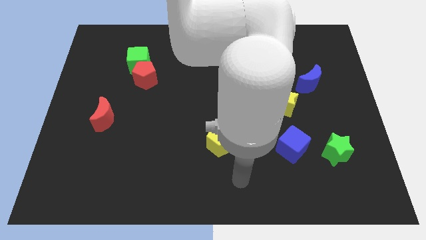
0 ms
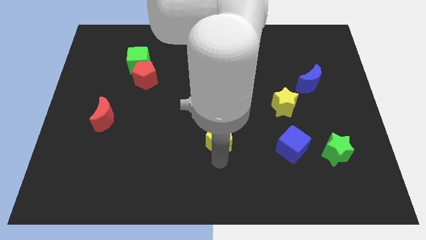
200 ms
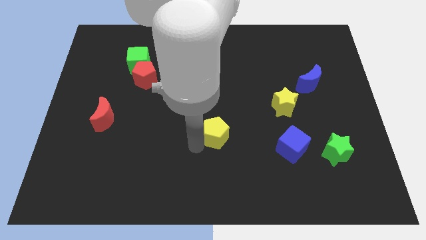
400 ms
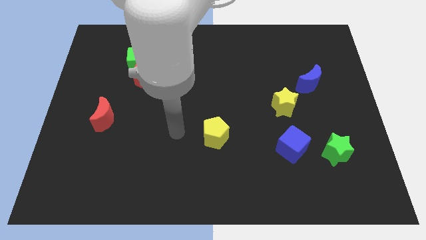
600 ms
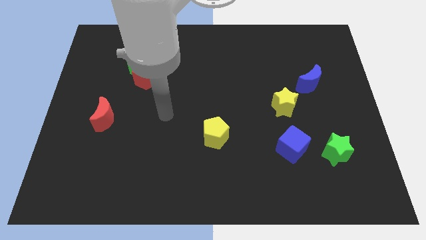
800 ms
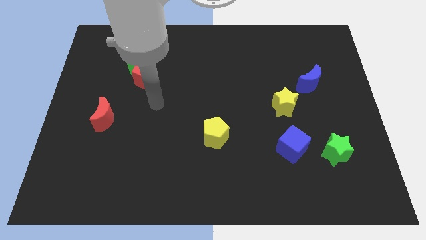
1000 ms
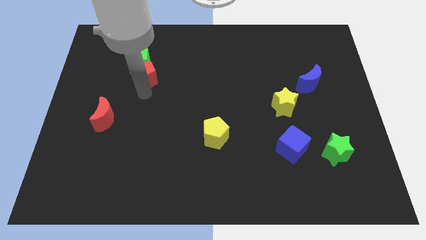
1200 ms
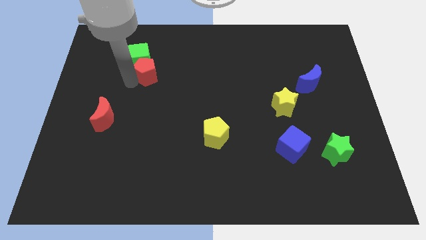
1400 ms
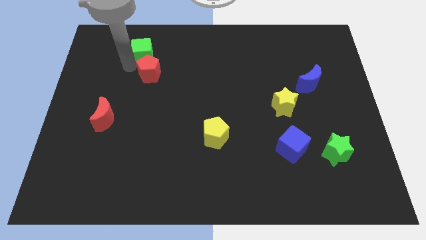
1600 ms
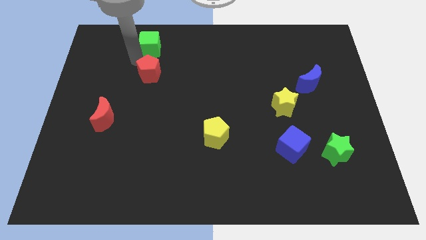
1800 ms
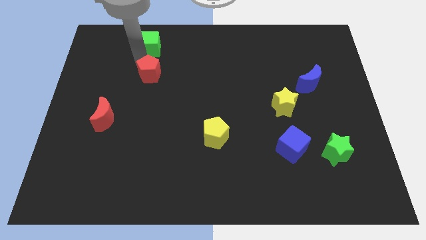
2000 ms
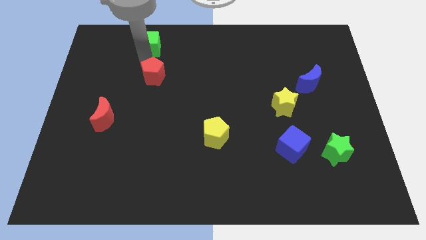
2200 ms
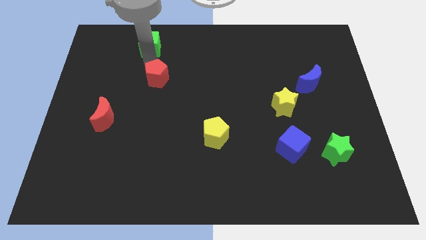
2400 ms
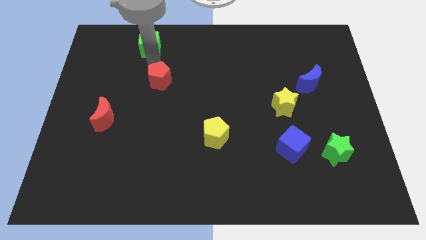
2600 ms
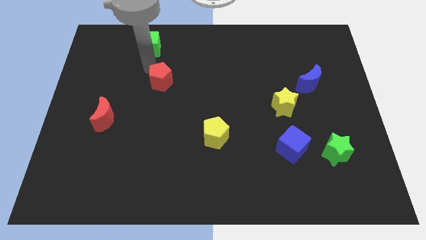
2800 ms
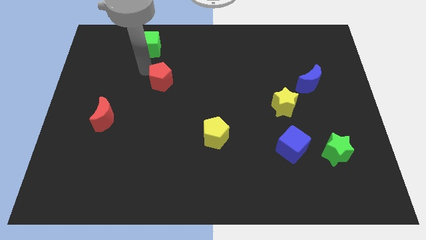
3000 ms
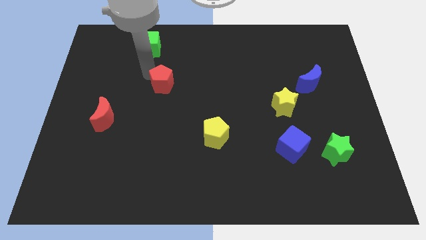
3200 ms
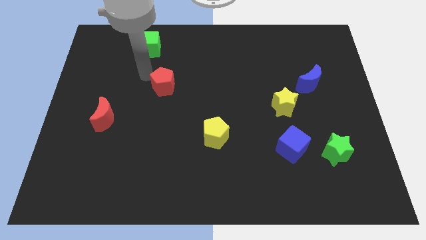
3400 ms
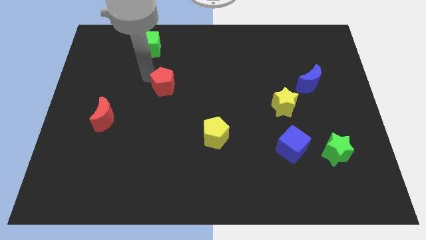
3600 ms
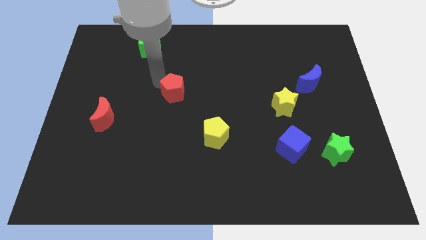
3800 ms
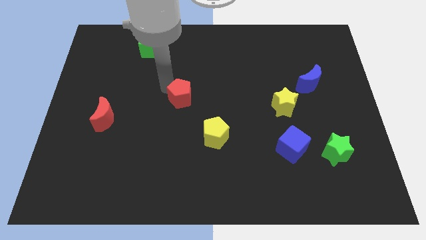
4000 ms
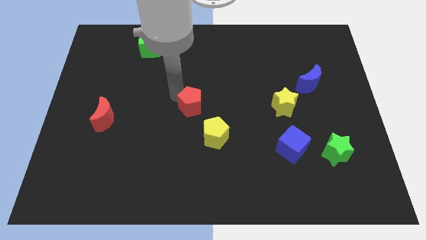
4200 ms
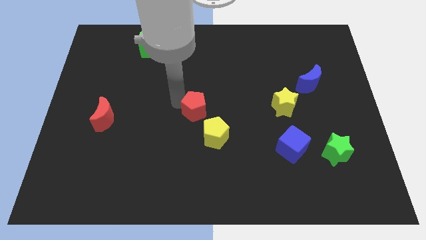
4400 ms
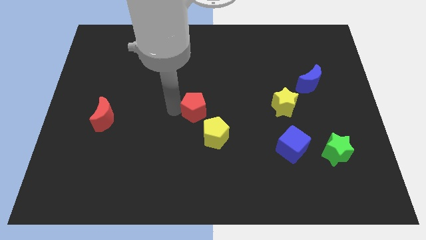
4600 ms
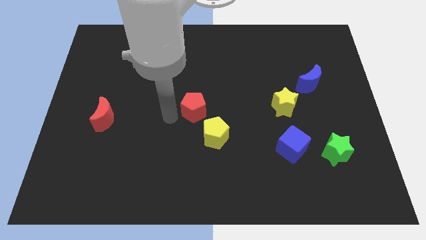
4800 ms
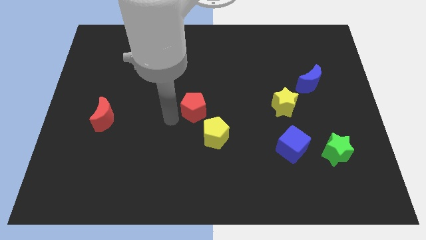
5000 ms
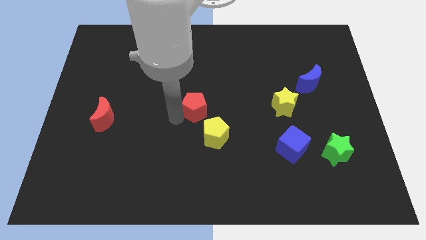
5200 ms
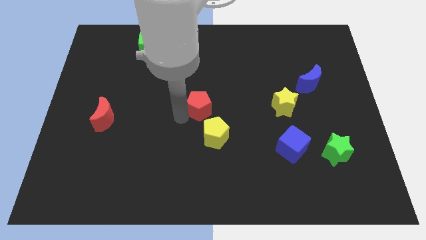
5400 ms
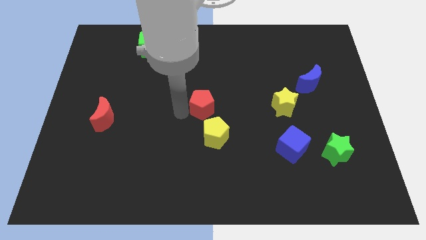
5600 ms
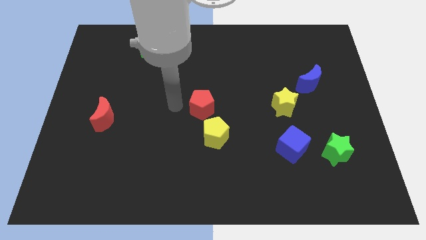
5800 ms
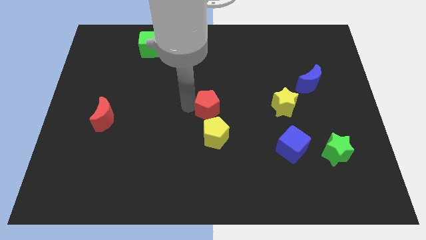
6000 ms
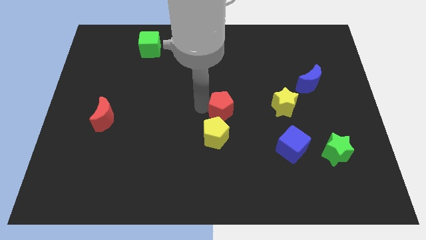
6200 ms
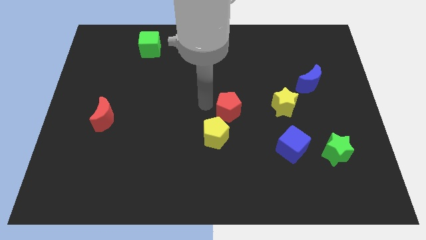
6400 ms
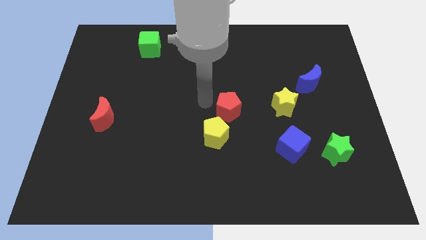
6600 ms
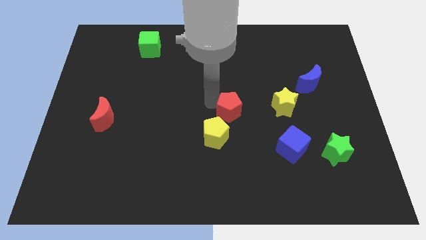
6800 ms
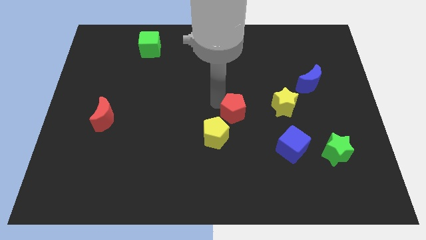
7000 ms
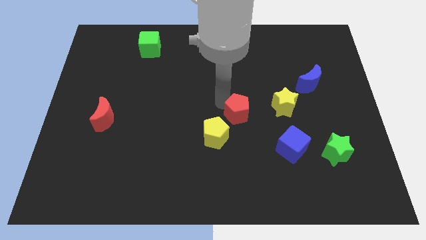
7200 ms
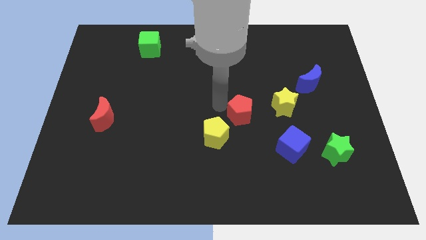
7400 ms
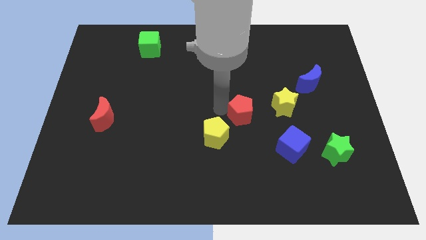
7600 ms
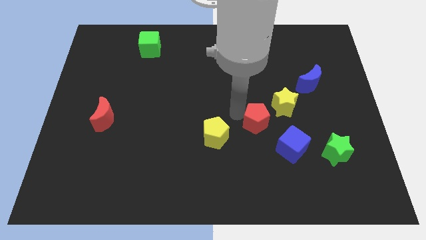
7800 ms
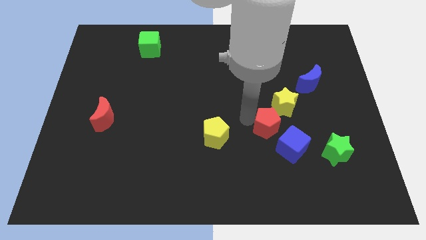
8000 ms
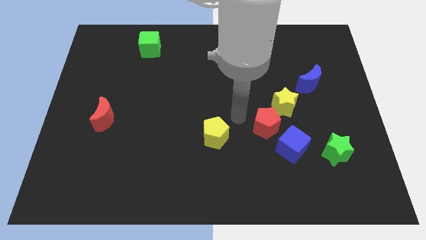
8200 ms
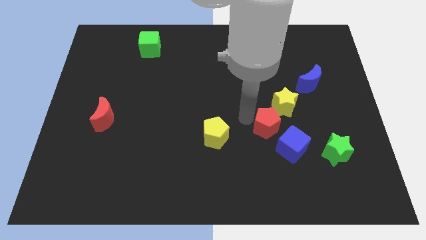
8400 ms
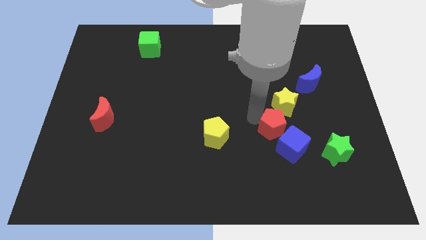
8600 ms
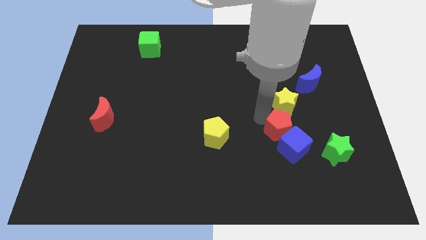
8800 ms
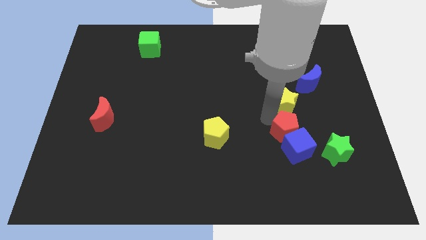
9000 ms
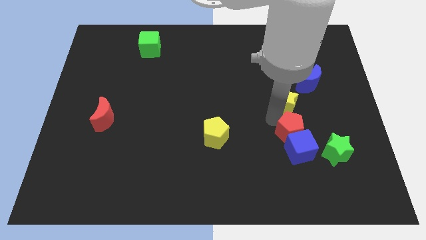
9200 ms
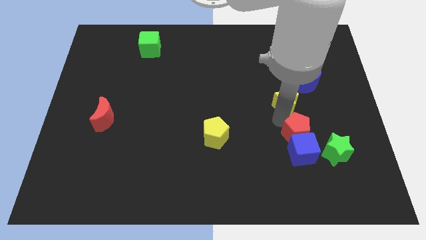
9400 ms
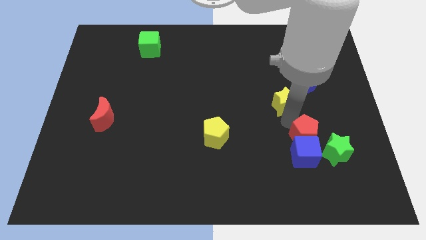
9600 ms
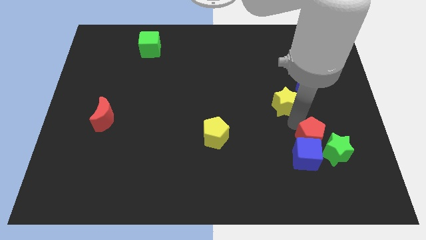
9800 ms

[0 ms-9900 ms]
move the red pentagon next to the green star

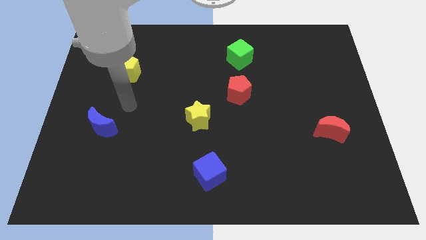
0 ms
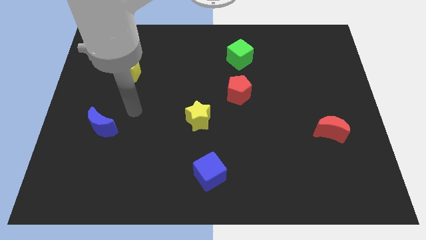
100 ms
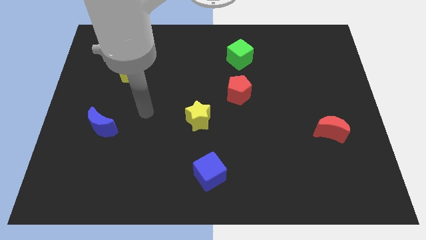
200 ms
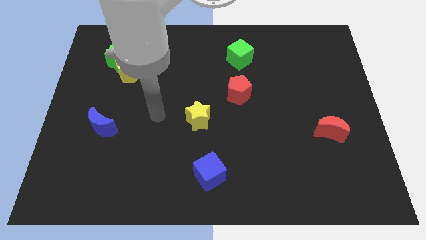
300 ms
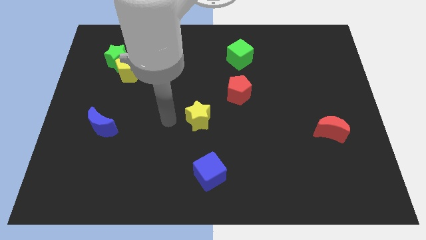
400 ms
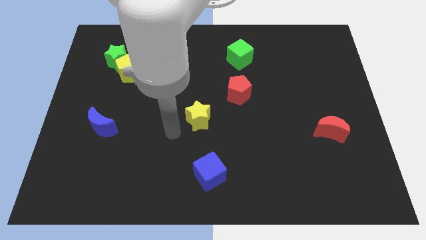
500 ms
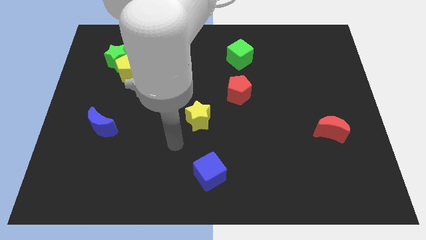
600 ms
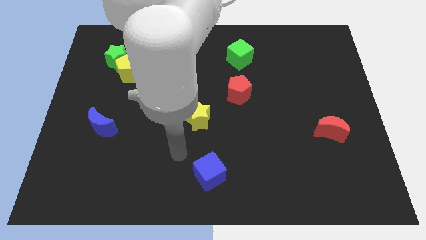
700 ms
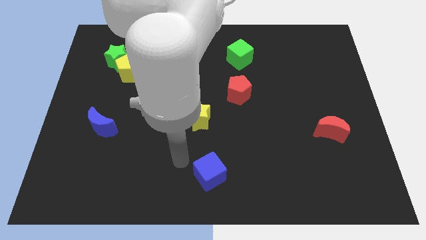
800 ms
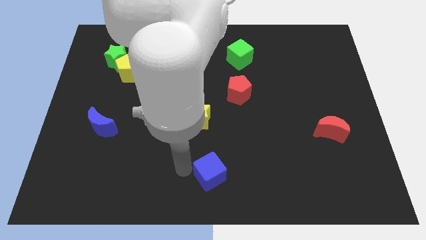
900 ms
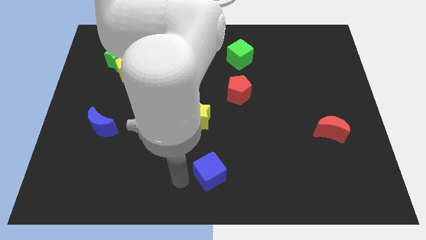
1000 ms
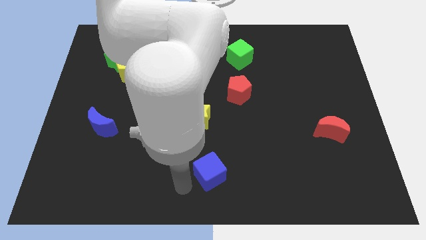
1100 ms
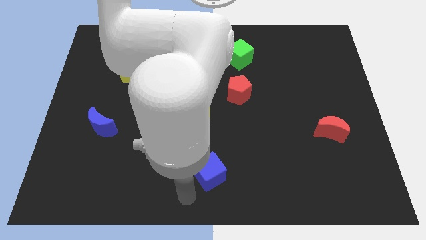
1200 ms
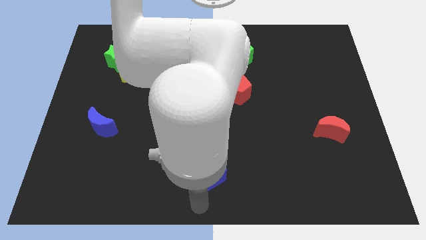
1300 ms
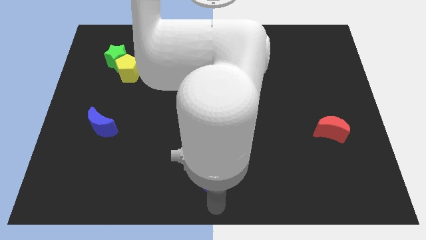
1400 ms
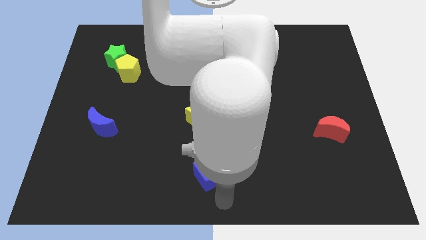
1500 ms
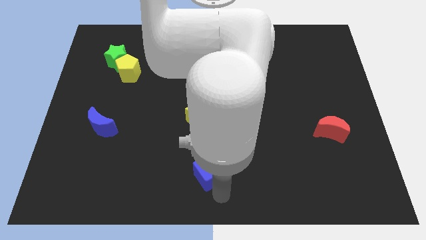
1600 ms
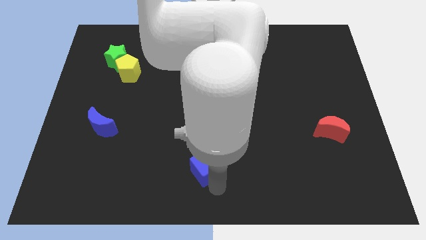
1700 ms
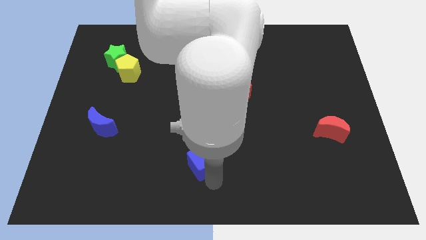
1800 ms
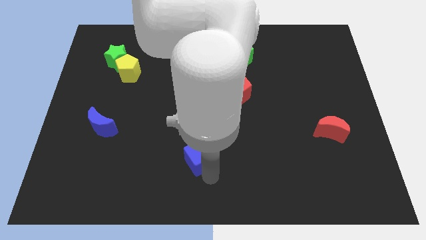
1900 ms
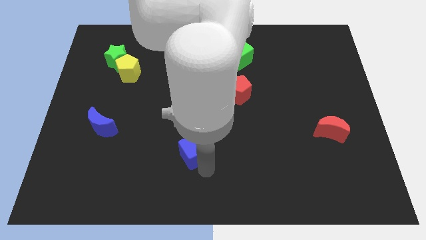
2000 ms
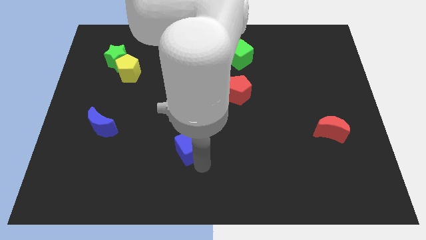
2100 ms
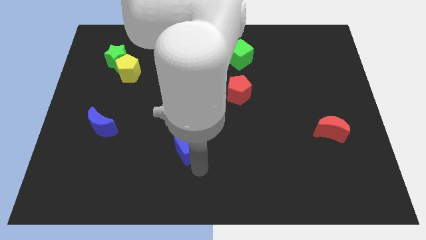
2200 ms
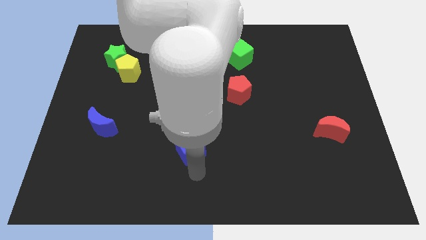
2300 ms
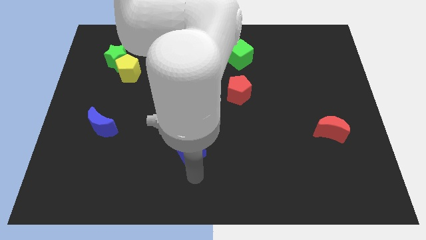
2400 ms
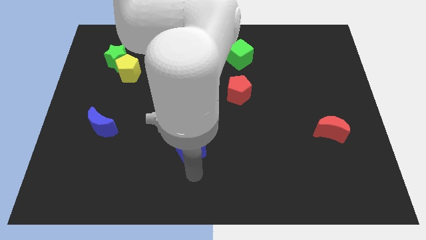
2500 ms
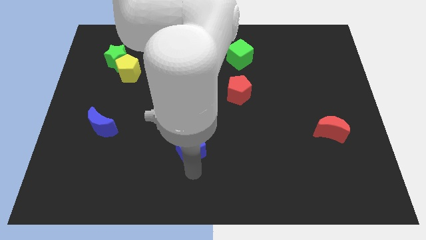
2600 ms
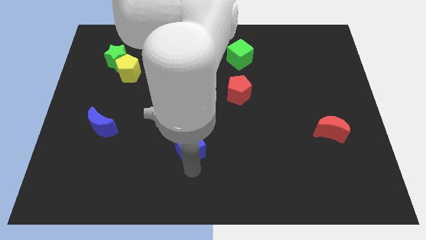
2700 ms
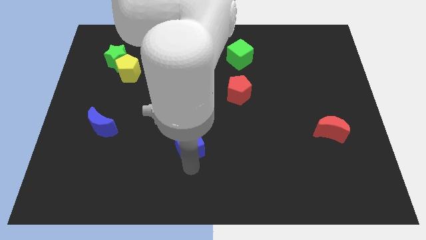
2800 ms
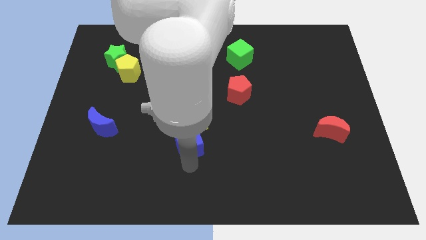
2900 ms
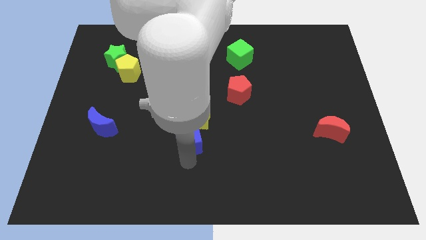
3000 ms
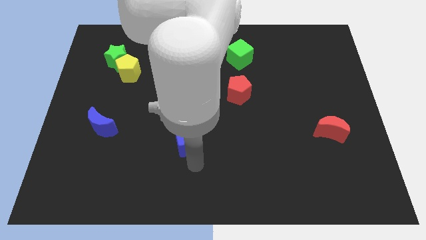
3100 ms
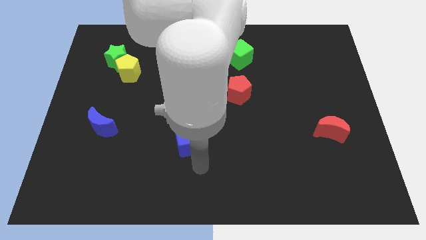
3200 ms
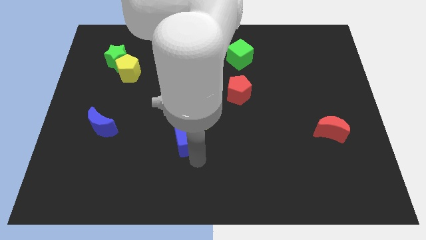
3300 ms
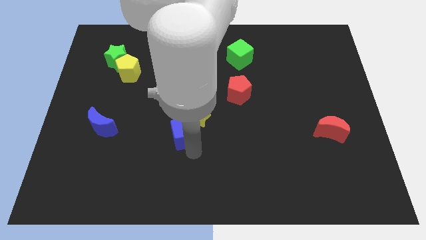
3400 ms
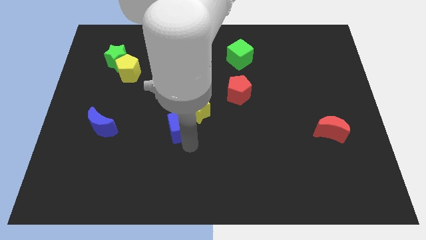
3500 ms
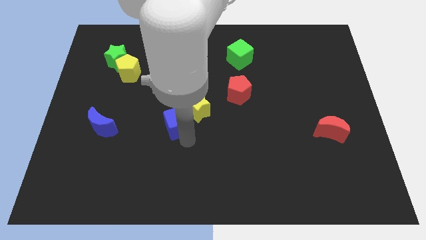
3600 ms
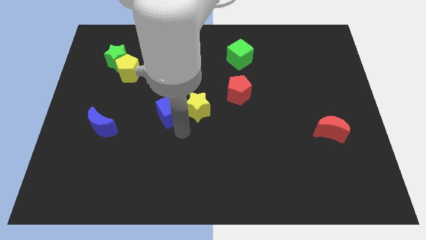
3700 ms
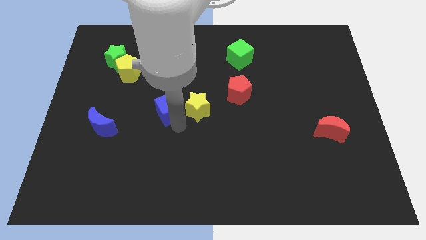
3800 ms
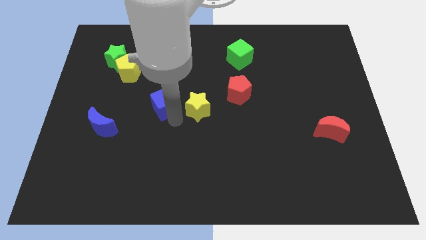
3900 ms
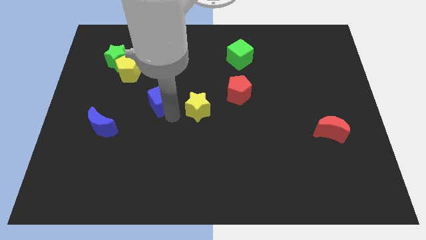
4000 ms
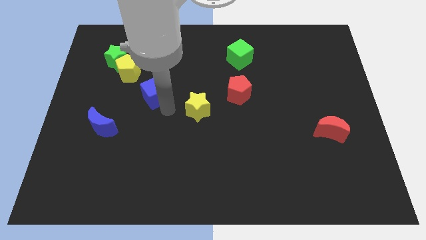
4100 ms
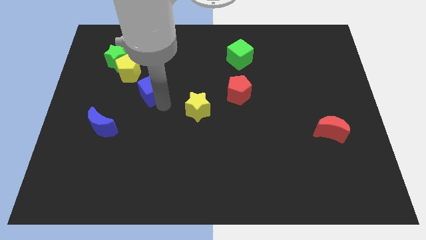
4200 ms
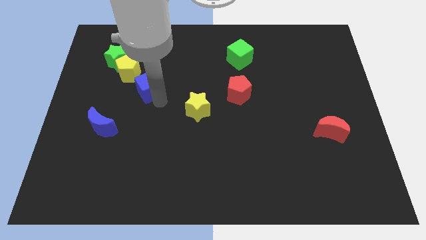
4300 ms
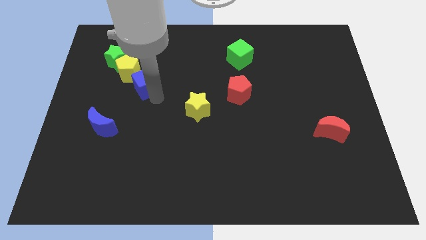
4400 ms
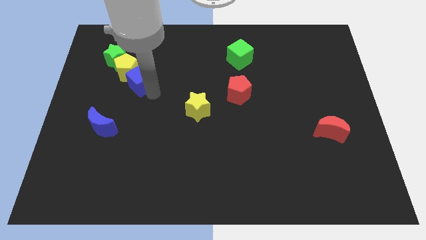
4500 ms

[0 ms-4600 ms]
move the blue cube to the yellow pentagon
